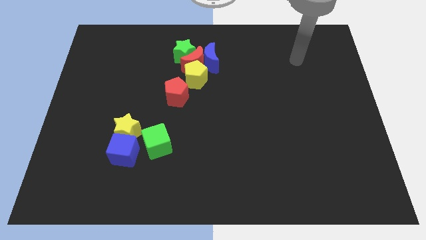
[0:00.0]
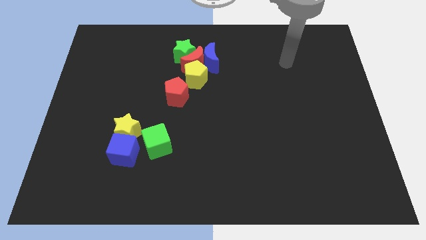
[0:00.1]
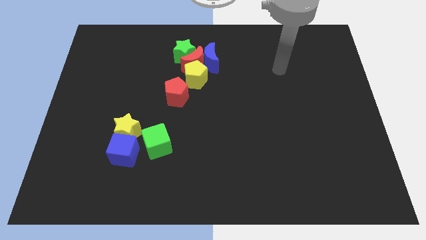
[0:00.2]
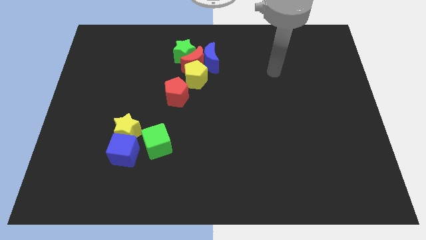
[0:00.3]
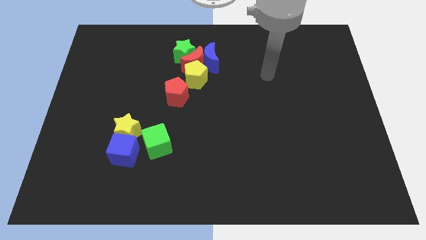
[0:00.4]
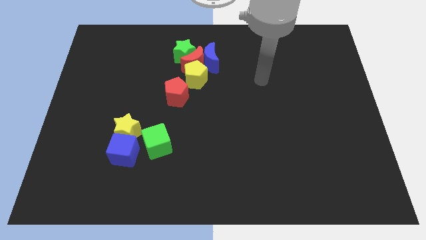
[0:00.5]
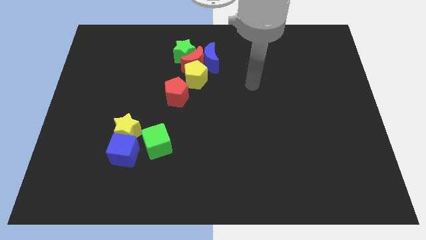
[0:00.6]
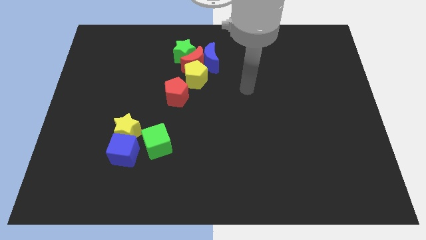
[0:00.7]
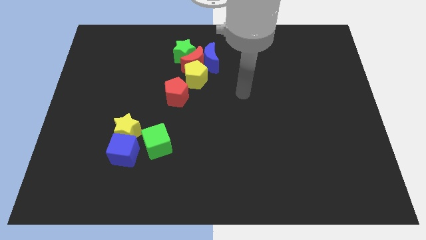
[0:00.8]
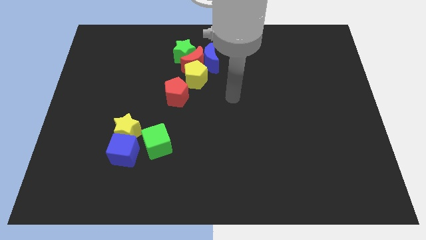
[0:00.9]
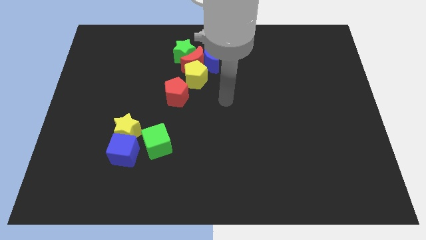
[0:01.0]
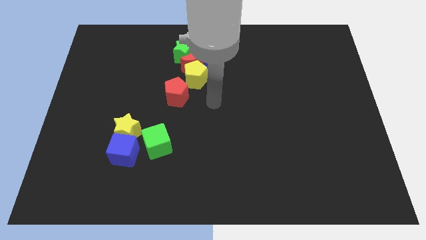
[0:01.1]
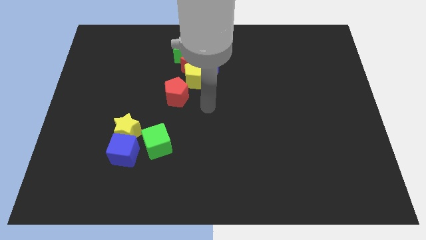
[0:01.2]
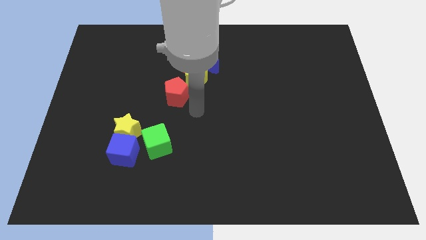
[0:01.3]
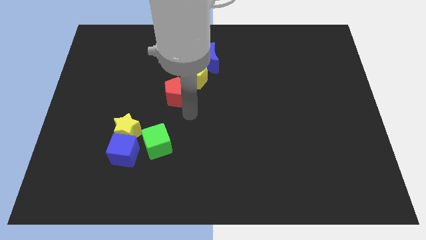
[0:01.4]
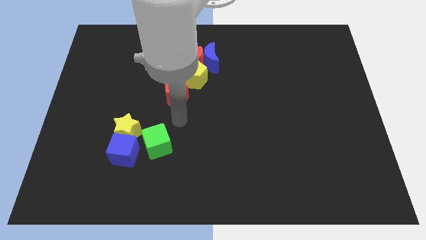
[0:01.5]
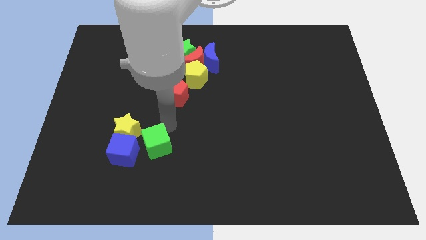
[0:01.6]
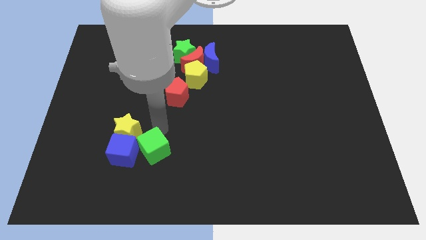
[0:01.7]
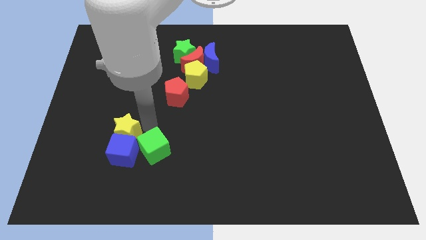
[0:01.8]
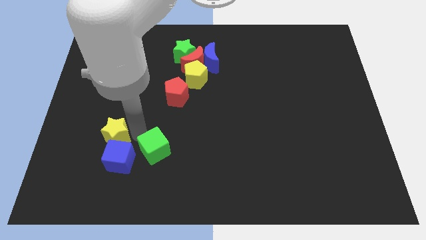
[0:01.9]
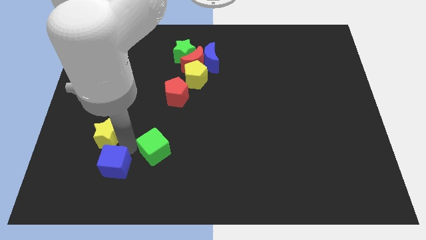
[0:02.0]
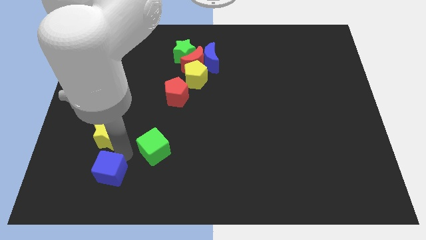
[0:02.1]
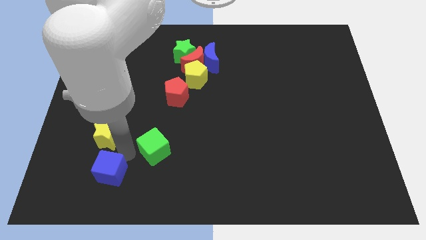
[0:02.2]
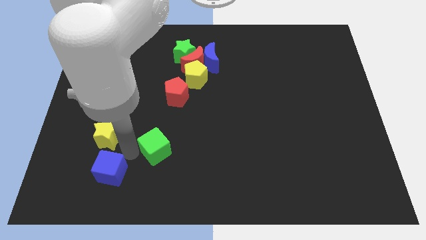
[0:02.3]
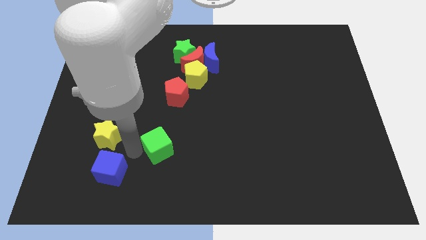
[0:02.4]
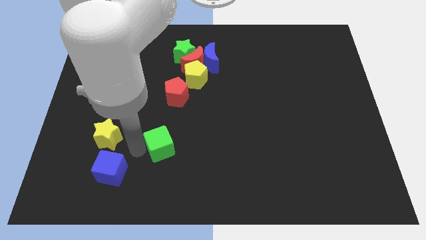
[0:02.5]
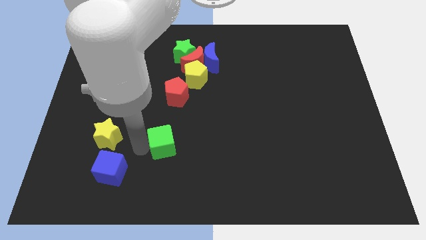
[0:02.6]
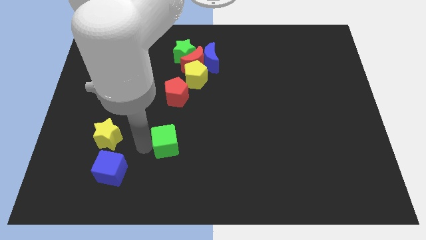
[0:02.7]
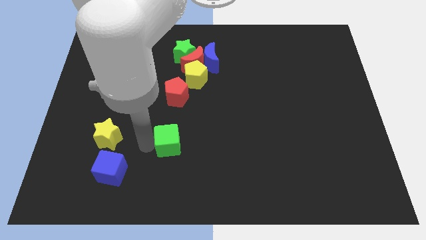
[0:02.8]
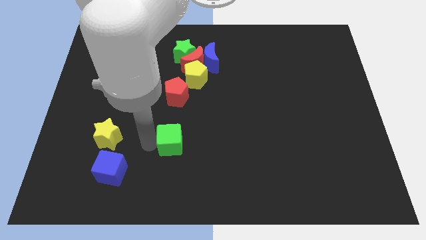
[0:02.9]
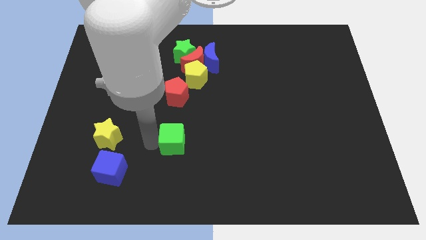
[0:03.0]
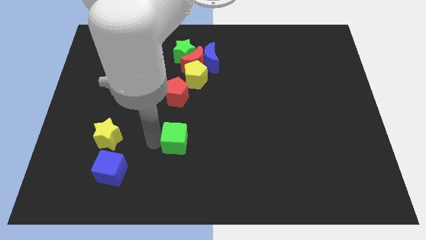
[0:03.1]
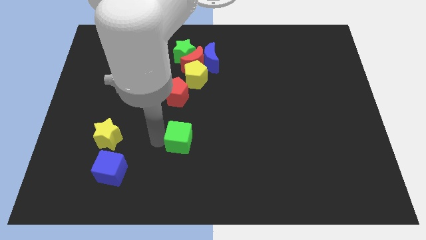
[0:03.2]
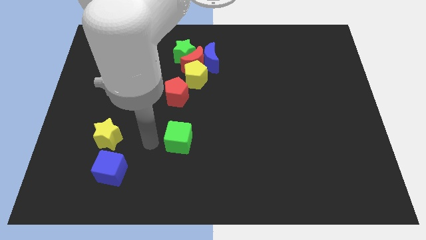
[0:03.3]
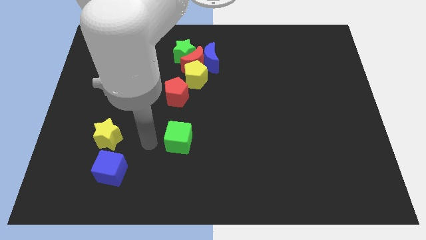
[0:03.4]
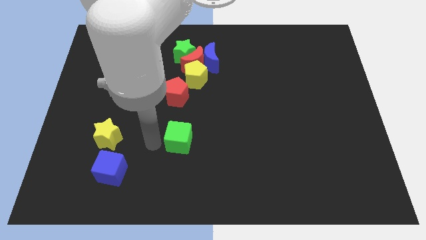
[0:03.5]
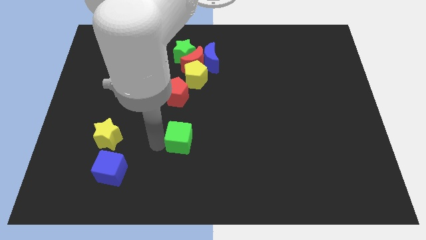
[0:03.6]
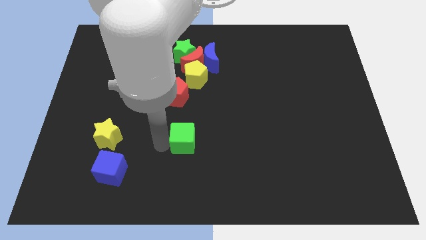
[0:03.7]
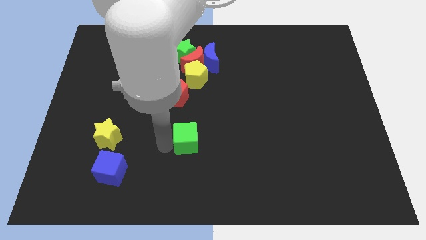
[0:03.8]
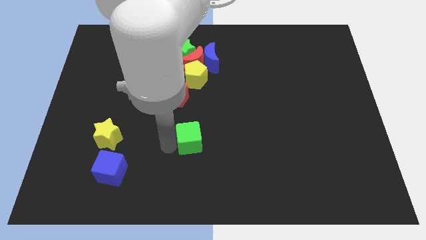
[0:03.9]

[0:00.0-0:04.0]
slightly push the green cube right

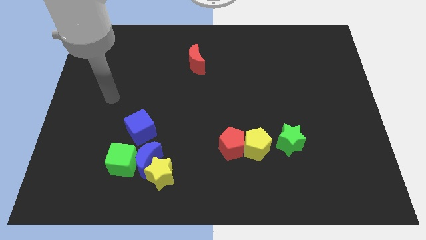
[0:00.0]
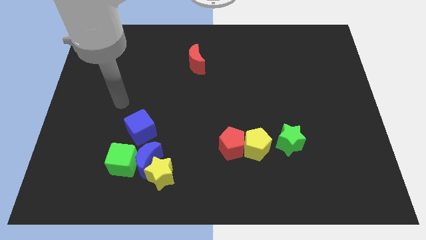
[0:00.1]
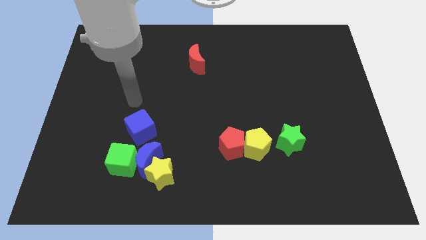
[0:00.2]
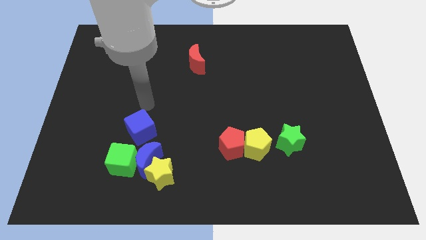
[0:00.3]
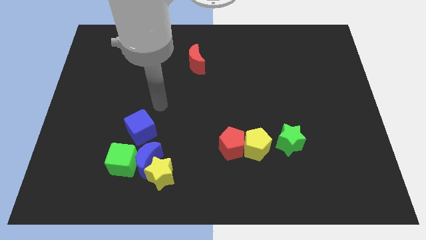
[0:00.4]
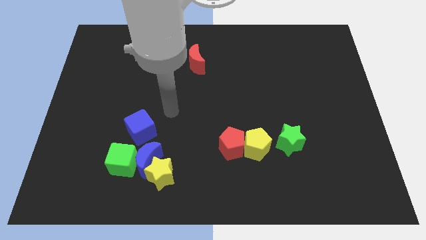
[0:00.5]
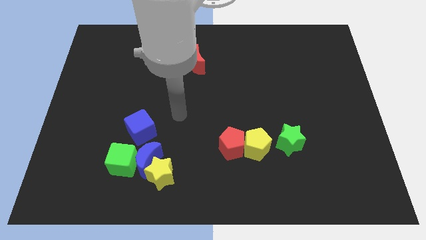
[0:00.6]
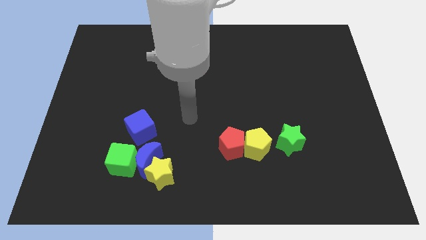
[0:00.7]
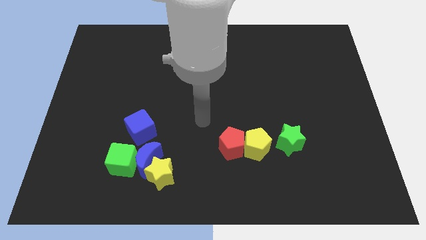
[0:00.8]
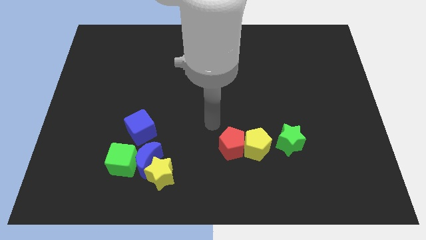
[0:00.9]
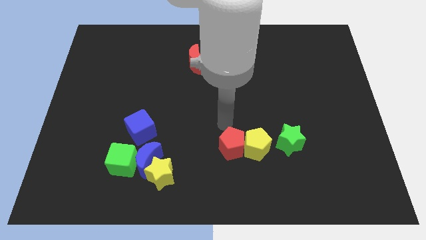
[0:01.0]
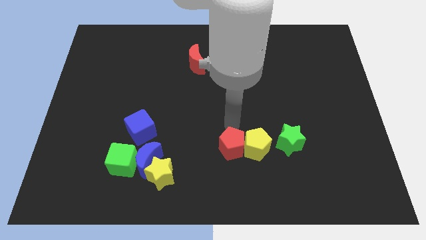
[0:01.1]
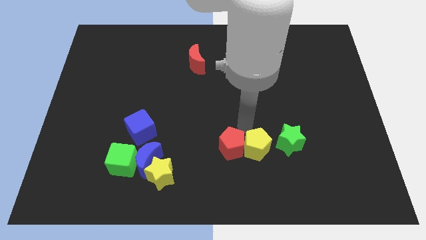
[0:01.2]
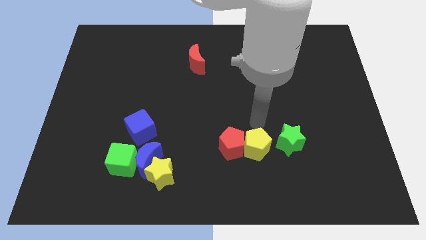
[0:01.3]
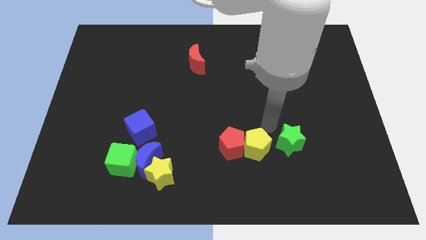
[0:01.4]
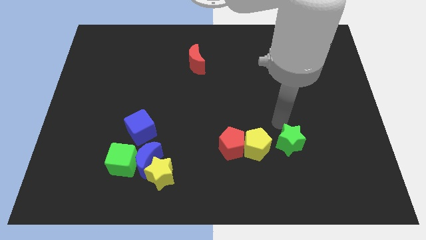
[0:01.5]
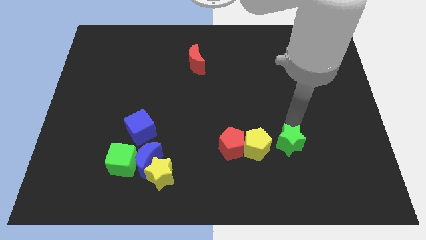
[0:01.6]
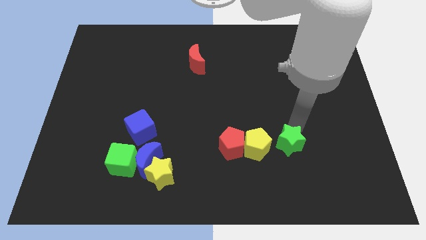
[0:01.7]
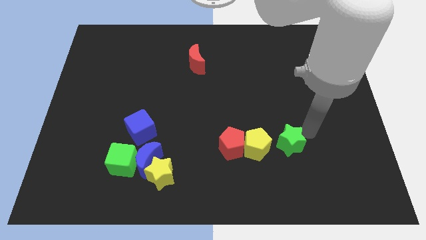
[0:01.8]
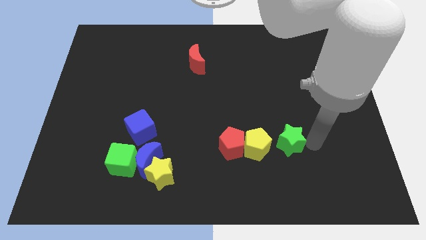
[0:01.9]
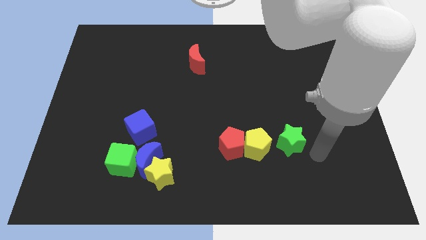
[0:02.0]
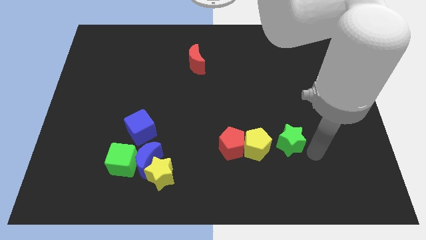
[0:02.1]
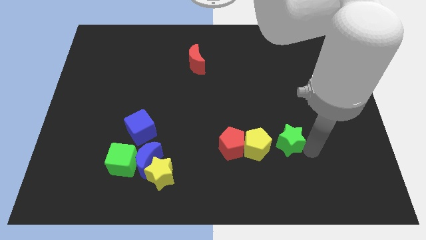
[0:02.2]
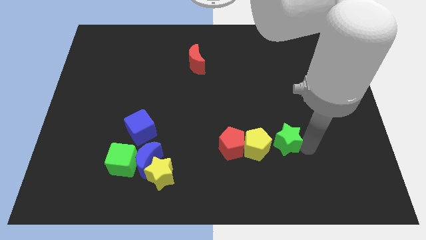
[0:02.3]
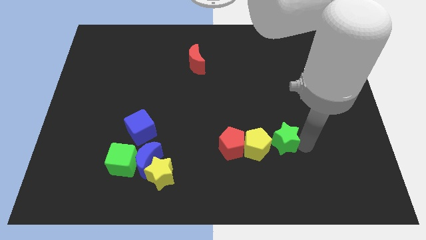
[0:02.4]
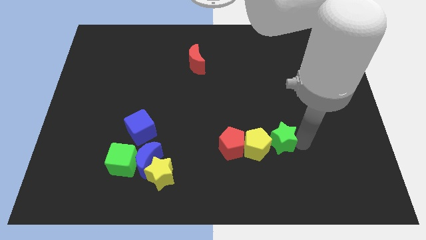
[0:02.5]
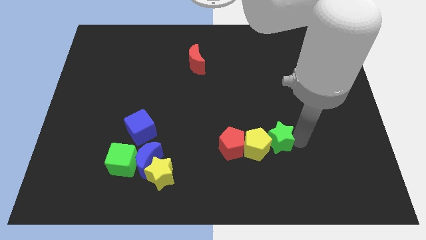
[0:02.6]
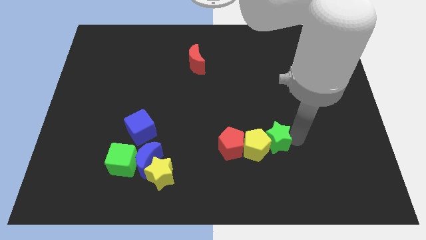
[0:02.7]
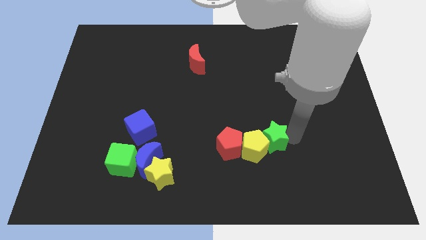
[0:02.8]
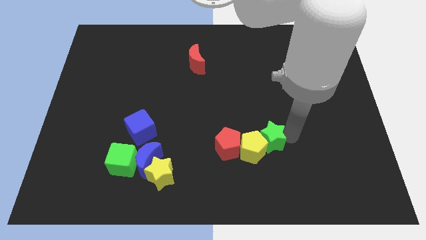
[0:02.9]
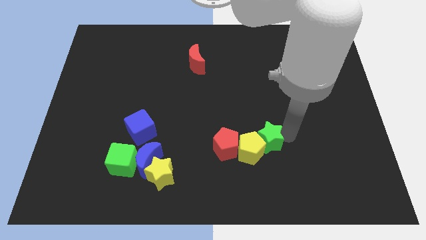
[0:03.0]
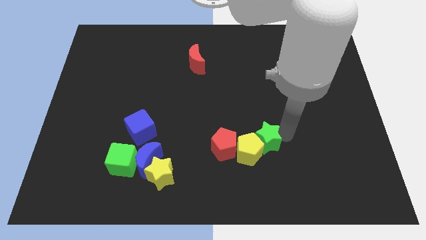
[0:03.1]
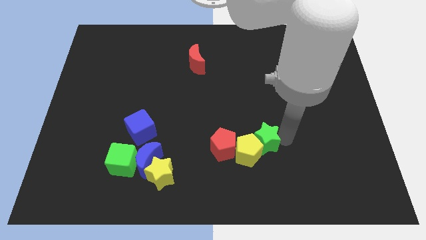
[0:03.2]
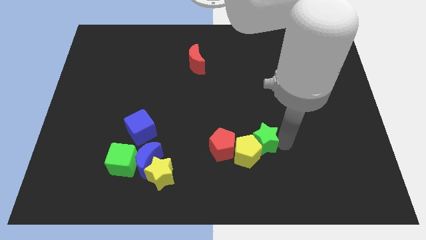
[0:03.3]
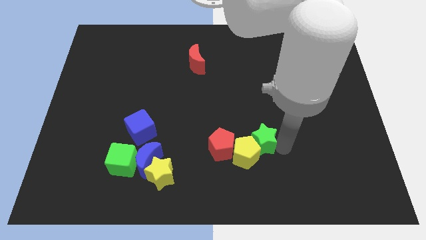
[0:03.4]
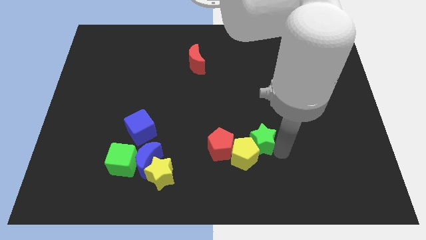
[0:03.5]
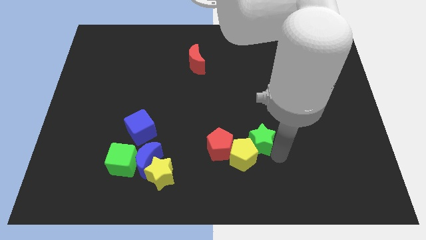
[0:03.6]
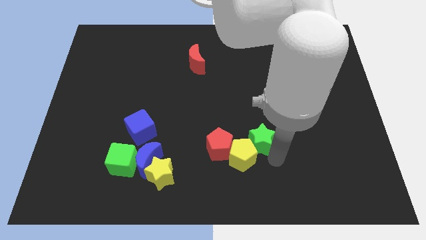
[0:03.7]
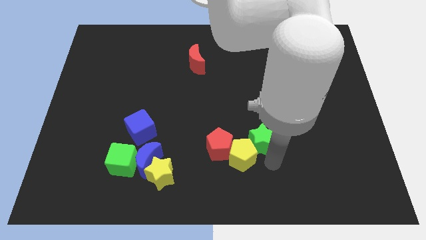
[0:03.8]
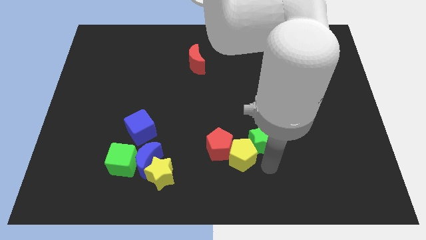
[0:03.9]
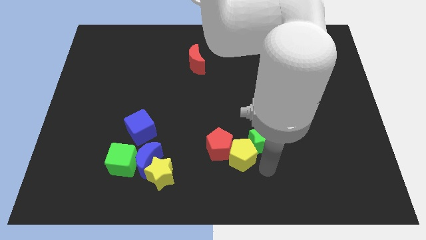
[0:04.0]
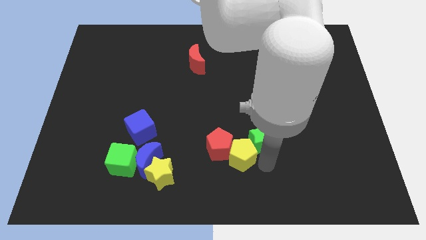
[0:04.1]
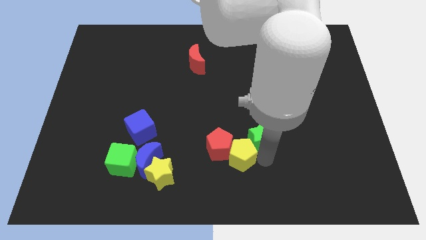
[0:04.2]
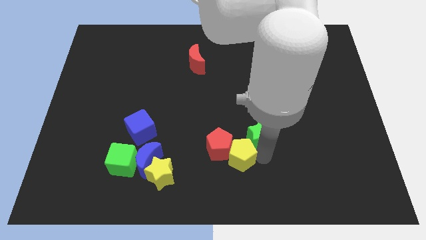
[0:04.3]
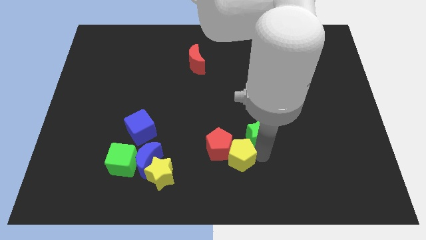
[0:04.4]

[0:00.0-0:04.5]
push the green star a little to the left
